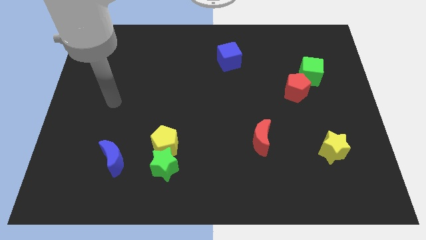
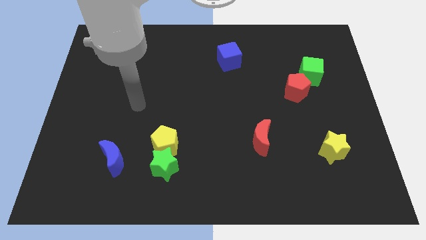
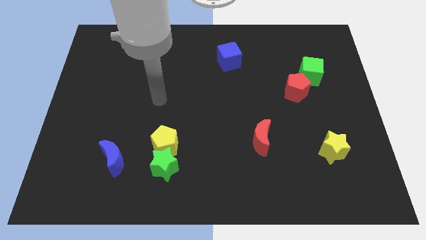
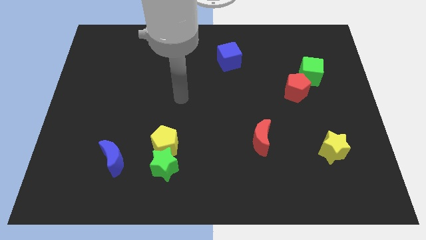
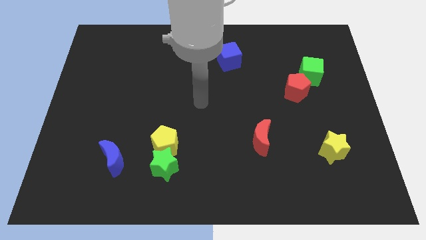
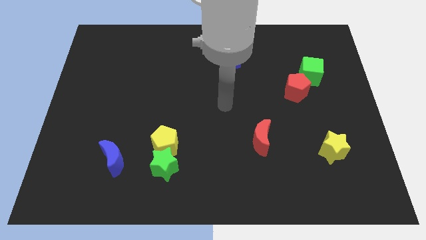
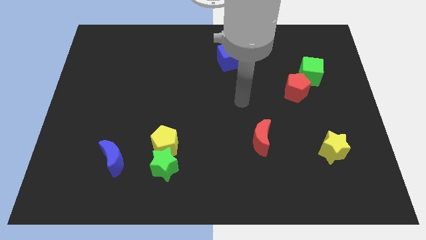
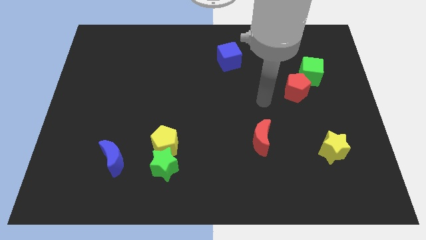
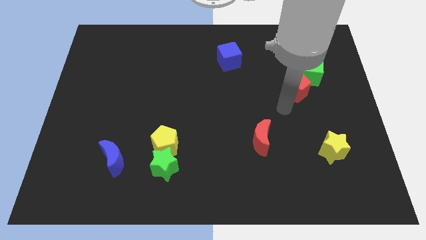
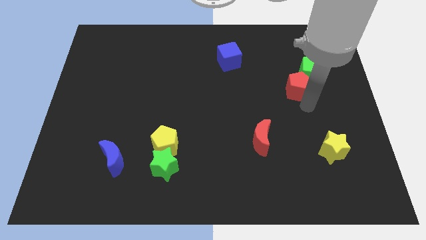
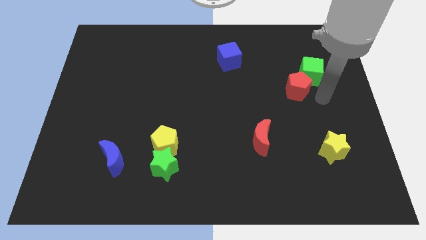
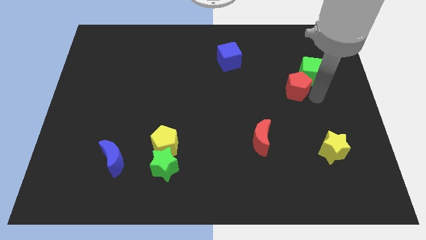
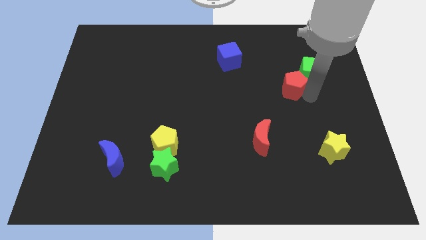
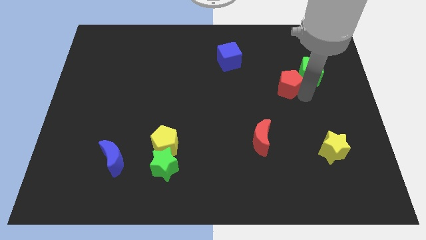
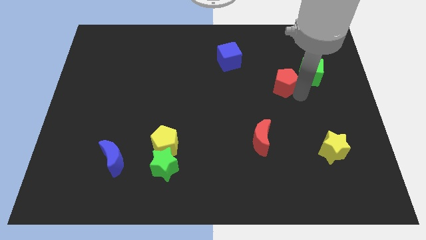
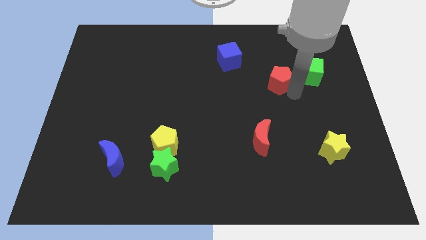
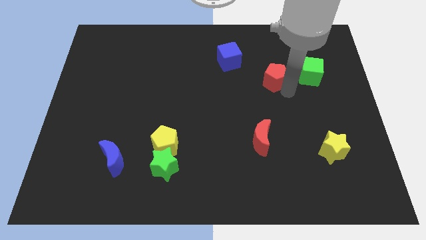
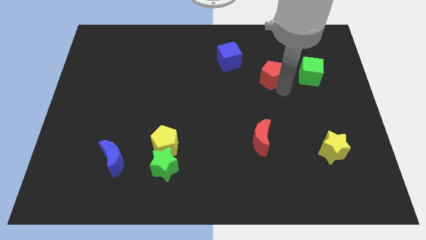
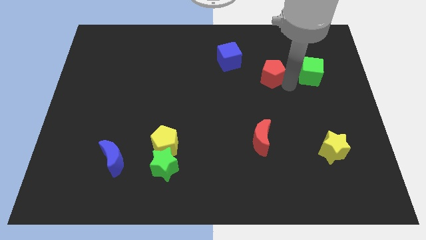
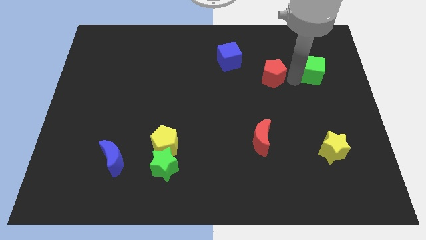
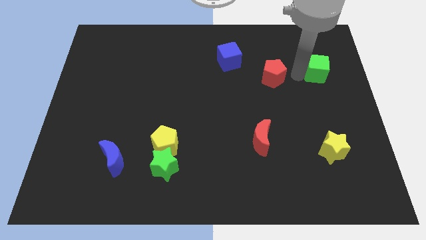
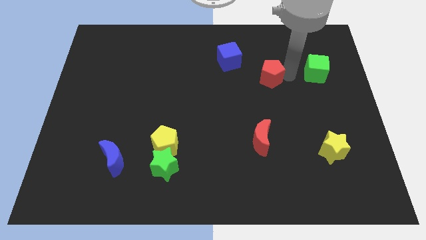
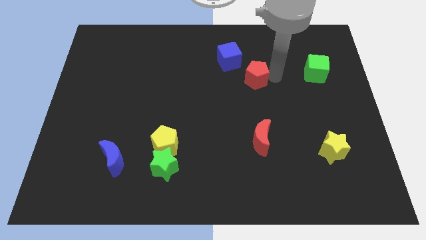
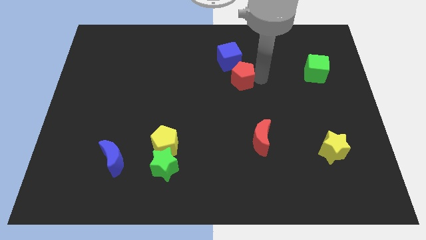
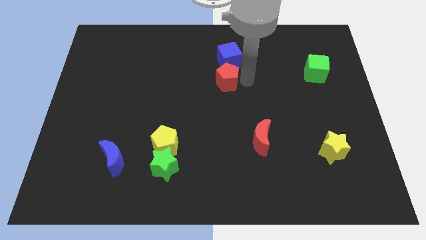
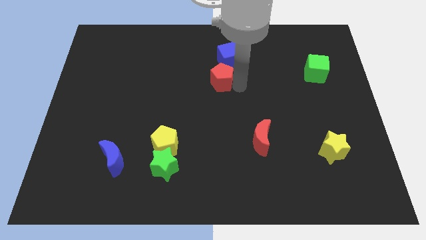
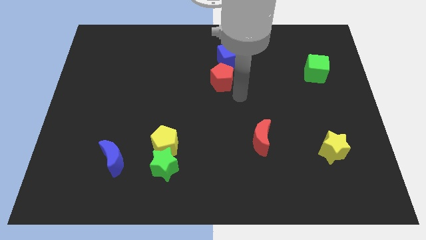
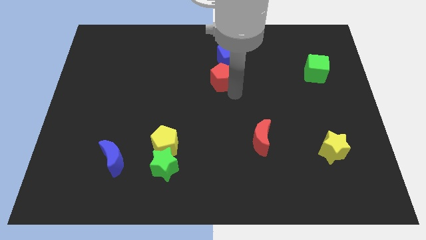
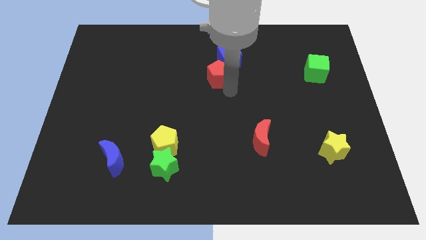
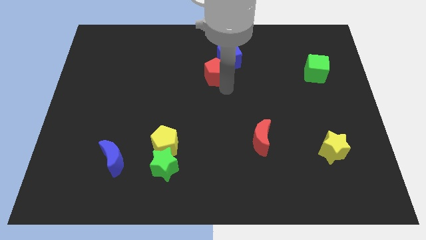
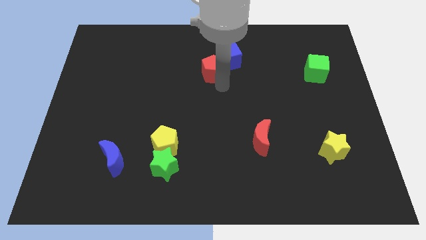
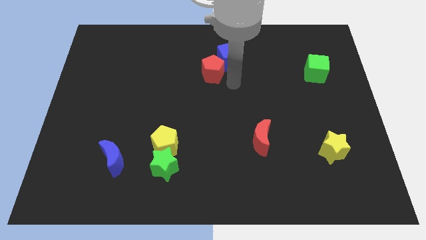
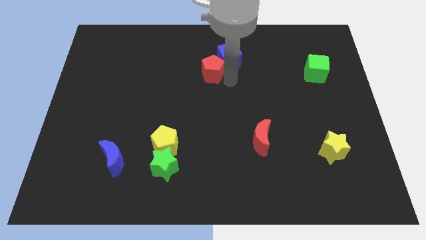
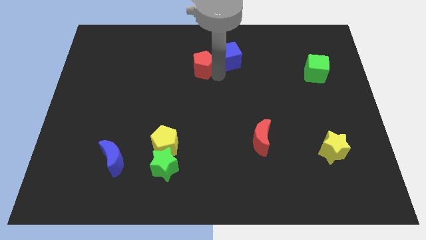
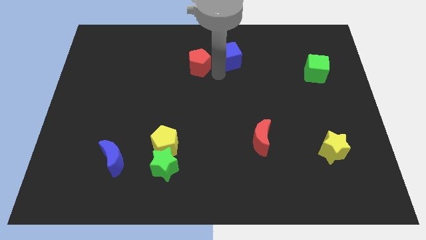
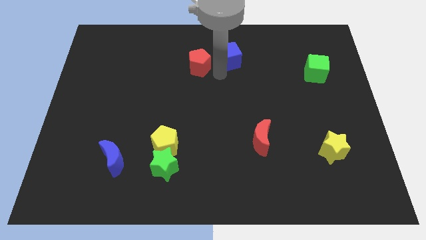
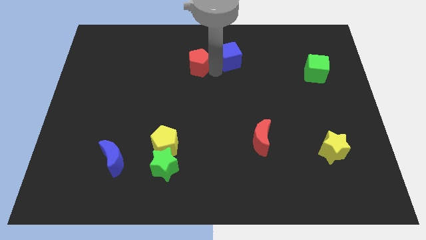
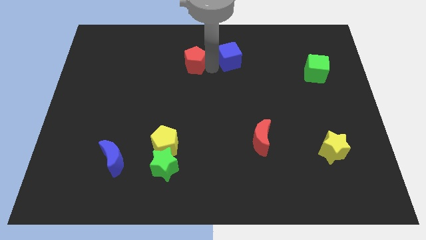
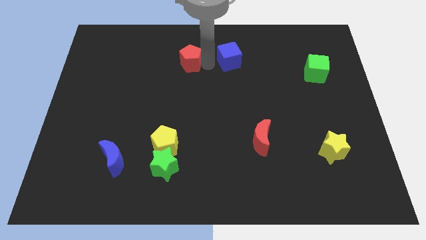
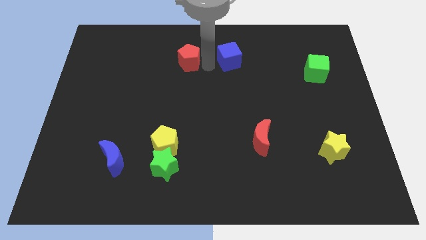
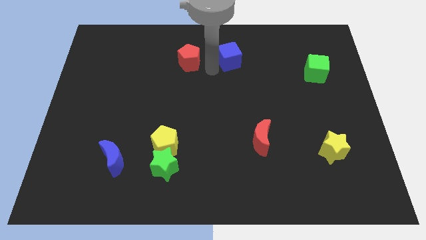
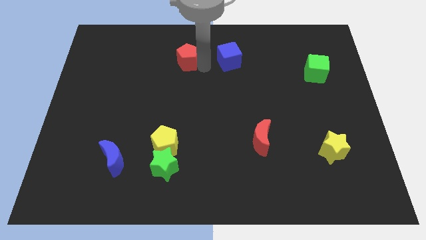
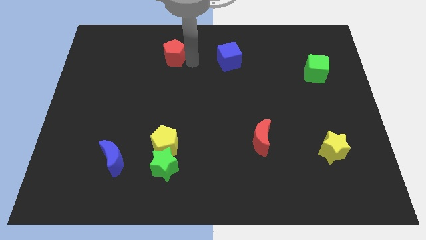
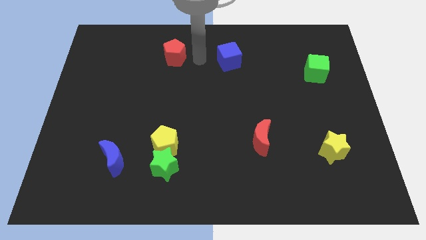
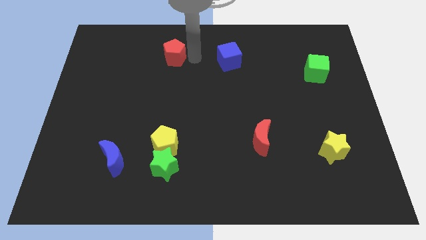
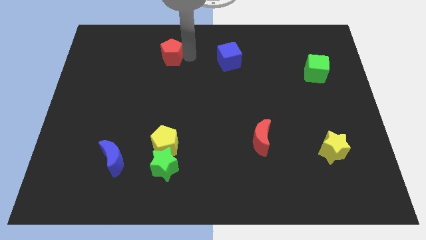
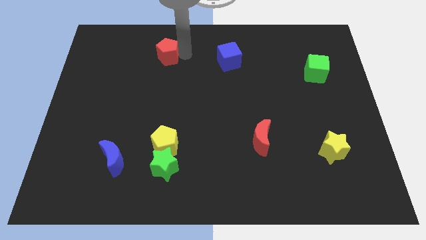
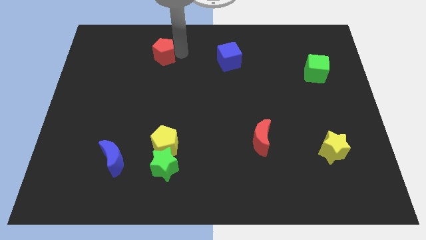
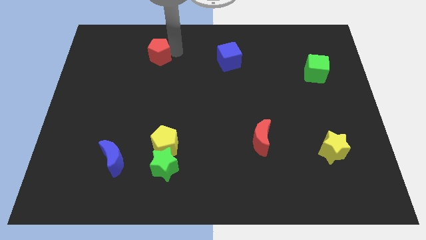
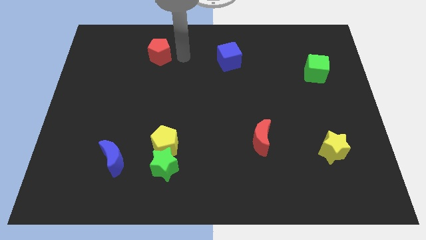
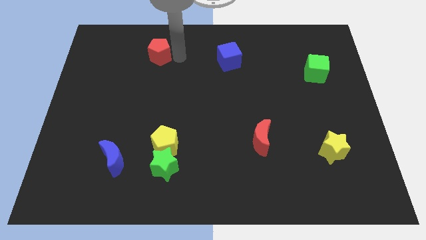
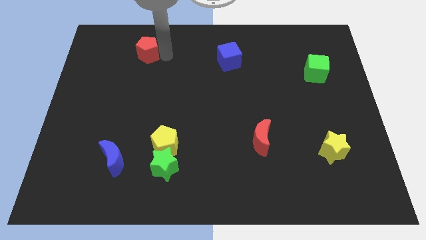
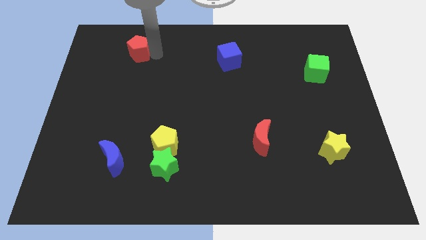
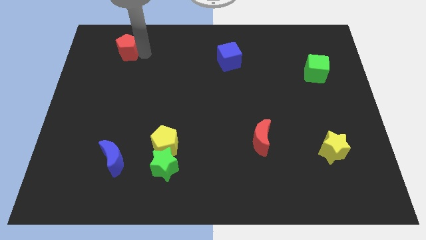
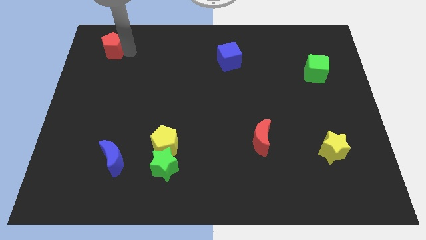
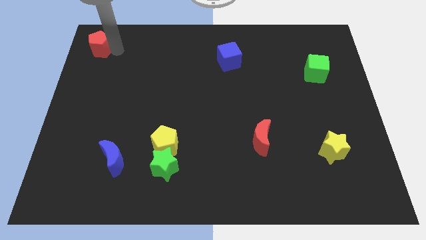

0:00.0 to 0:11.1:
push the red pentagon to the upper left corner
